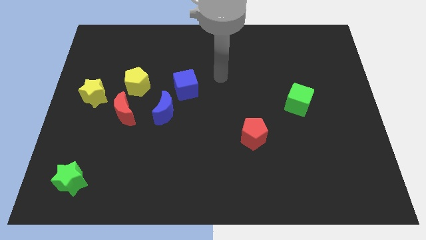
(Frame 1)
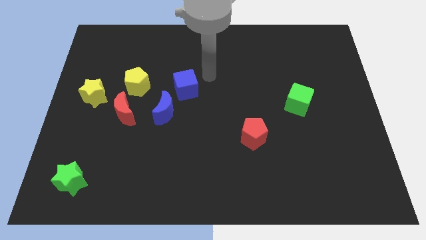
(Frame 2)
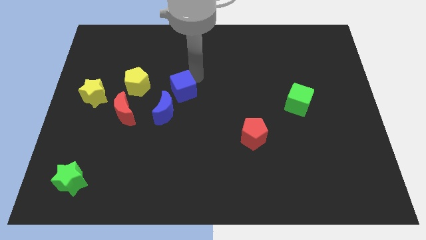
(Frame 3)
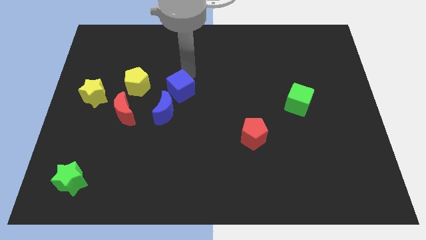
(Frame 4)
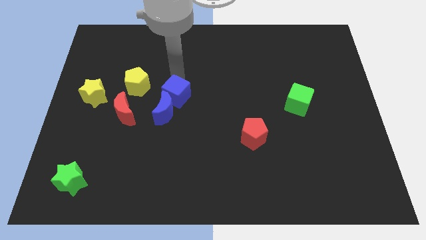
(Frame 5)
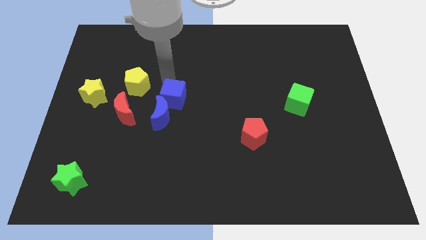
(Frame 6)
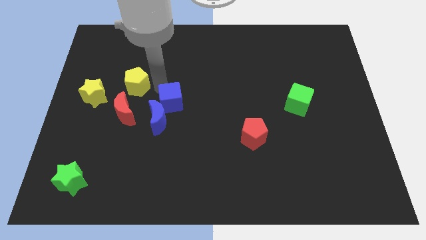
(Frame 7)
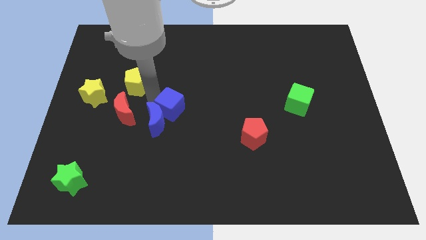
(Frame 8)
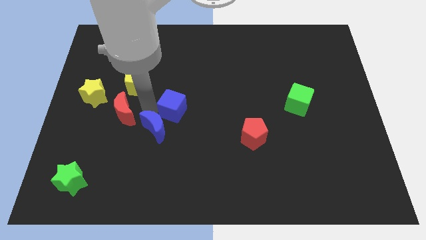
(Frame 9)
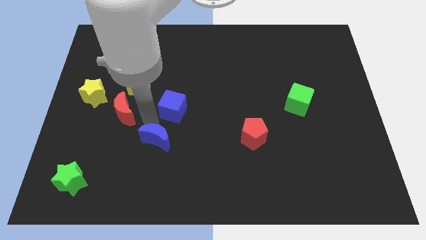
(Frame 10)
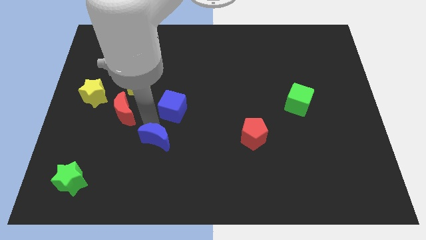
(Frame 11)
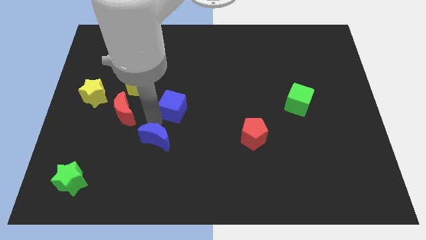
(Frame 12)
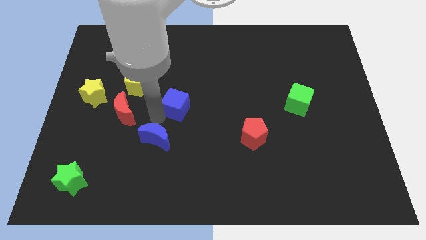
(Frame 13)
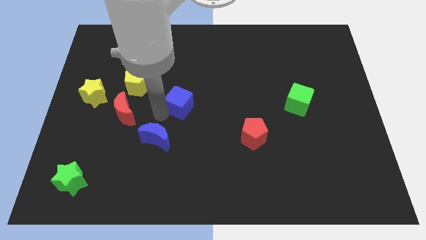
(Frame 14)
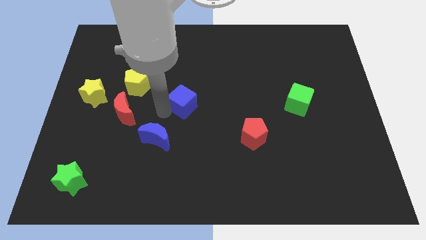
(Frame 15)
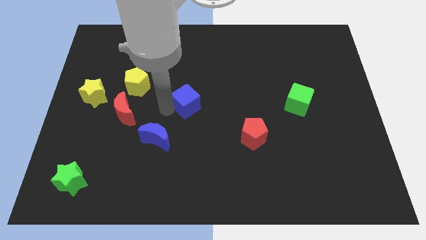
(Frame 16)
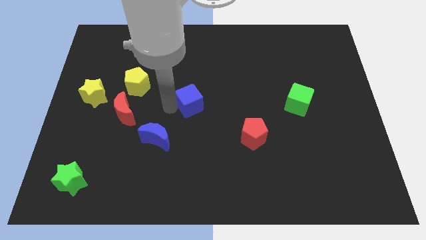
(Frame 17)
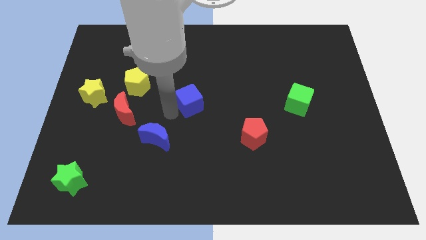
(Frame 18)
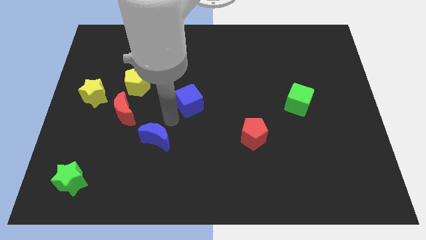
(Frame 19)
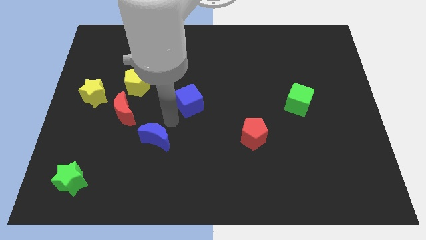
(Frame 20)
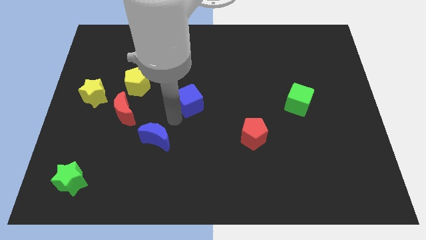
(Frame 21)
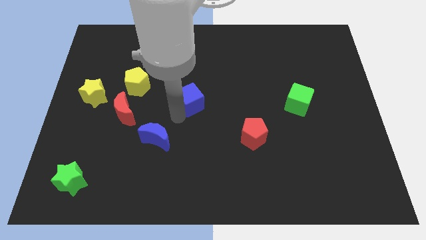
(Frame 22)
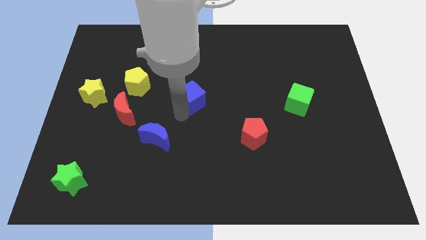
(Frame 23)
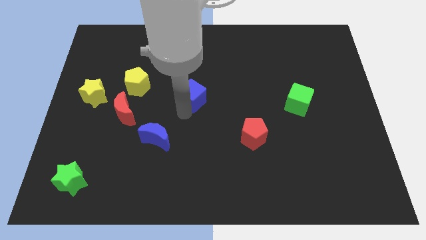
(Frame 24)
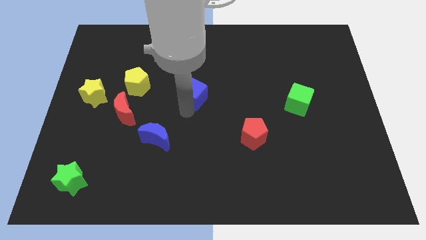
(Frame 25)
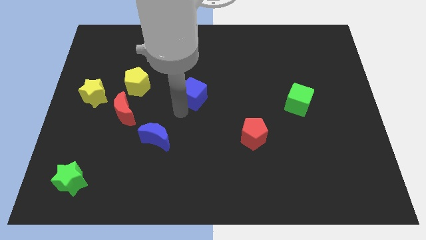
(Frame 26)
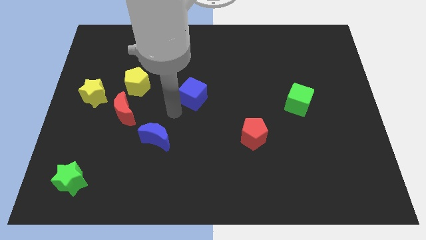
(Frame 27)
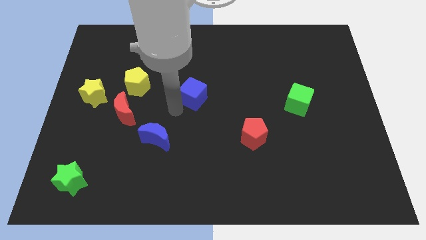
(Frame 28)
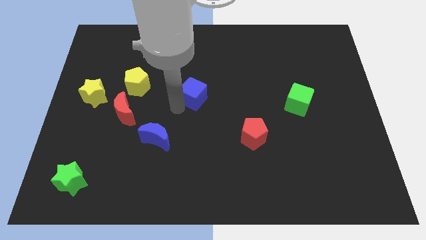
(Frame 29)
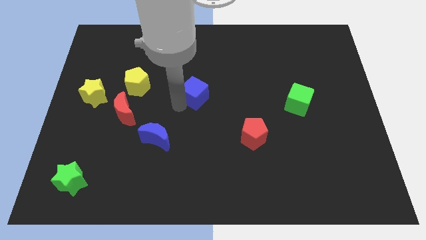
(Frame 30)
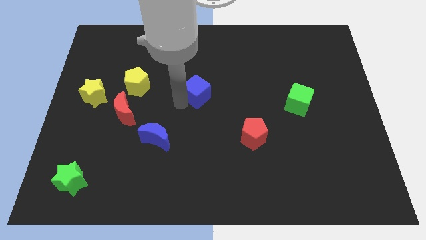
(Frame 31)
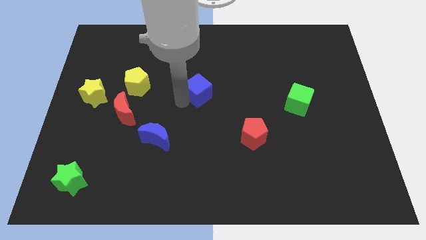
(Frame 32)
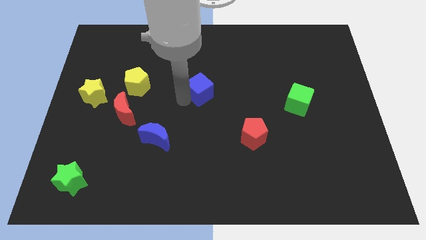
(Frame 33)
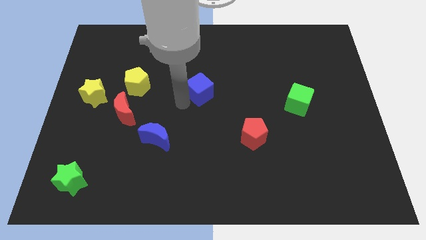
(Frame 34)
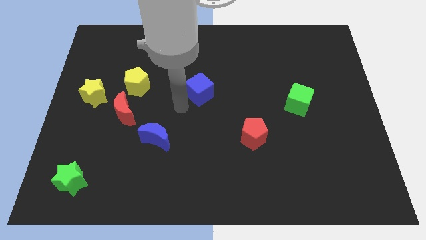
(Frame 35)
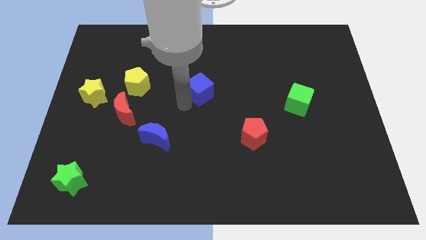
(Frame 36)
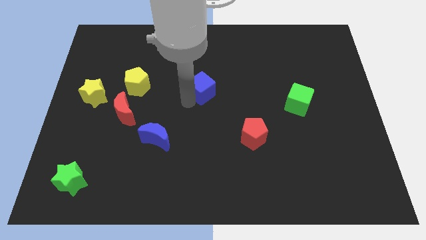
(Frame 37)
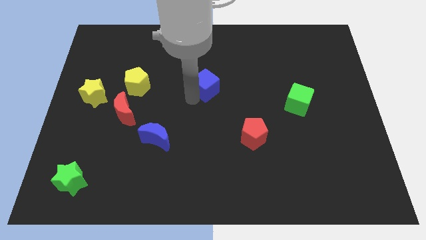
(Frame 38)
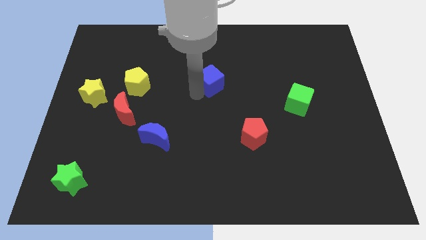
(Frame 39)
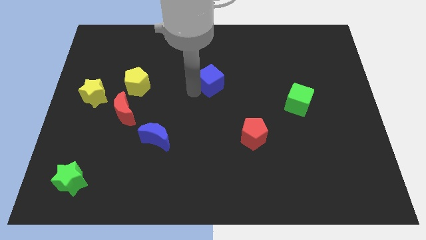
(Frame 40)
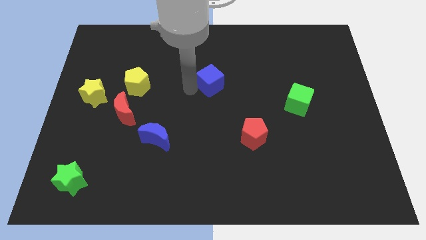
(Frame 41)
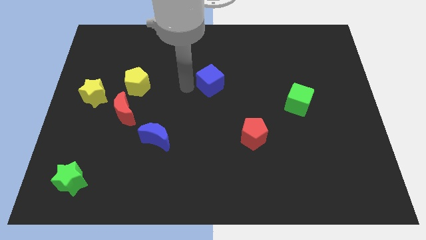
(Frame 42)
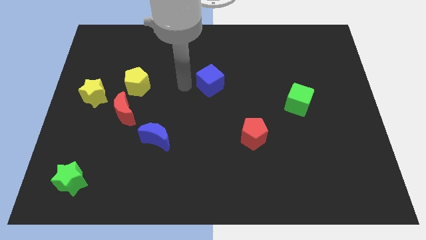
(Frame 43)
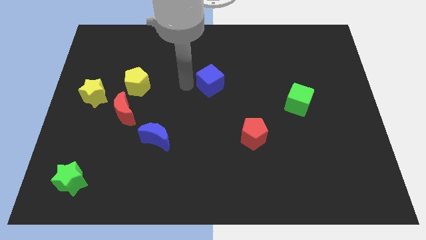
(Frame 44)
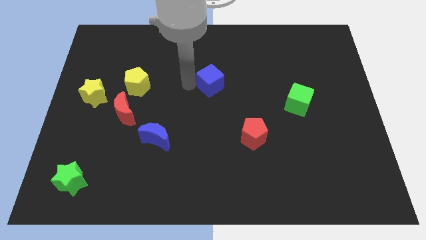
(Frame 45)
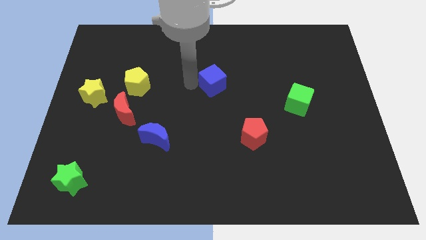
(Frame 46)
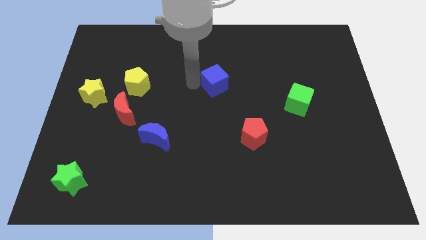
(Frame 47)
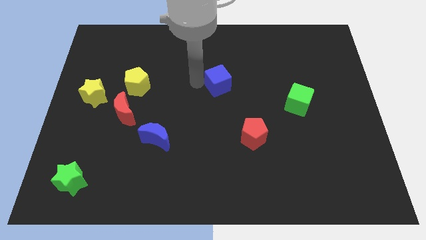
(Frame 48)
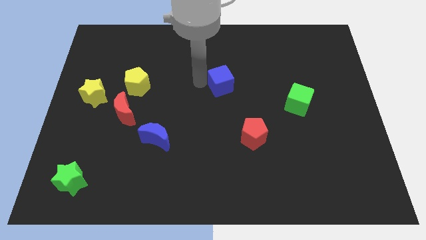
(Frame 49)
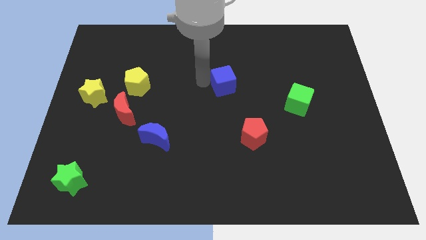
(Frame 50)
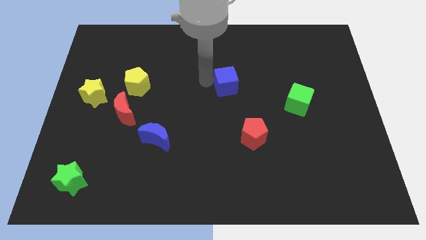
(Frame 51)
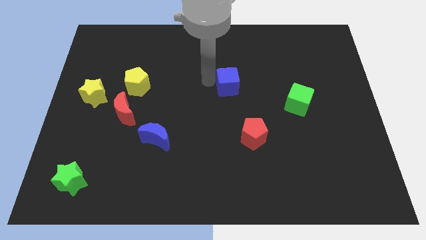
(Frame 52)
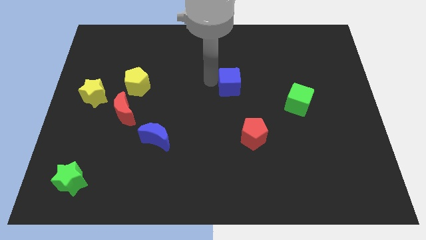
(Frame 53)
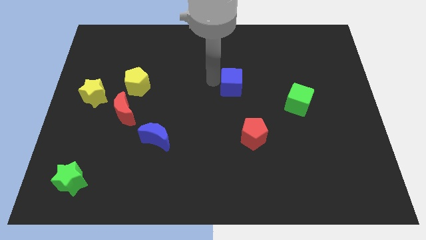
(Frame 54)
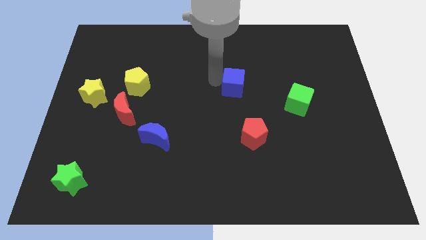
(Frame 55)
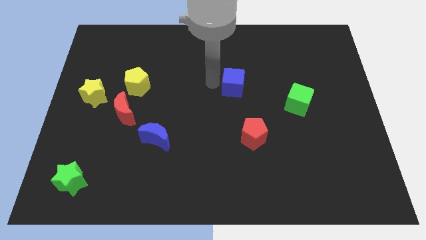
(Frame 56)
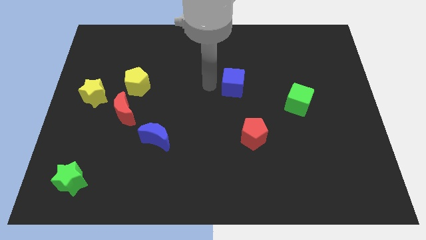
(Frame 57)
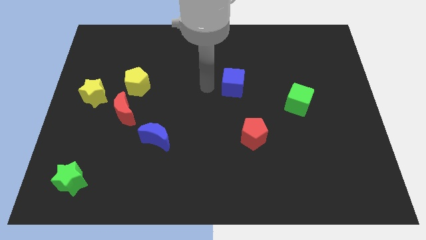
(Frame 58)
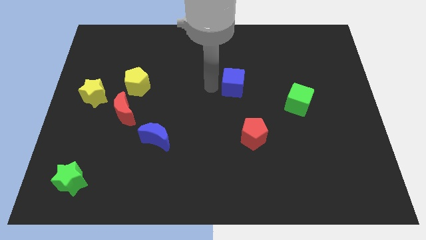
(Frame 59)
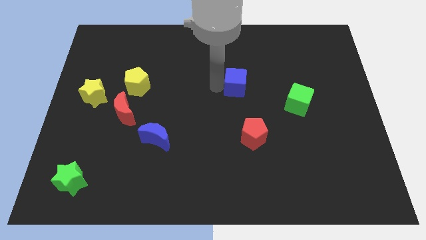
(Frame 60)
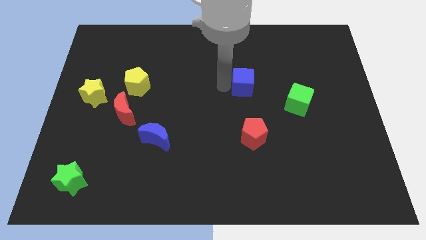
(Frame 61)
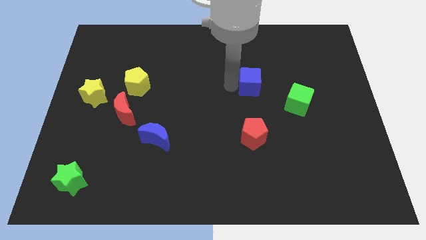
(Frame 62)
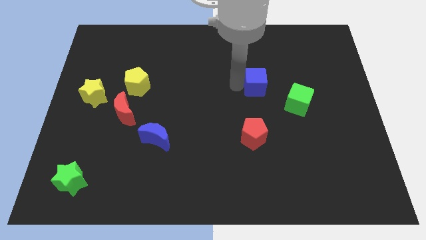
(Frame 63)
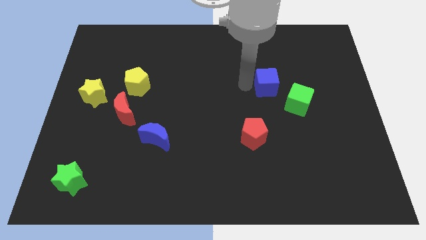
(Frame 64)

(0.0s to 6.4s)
slide the blue cube to the right

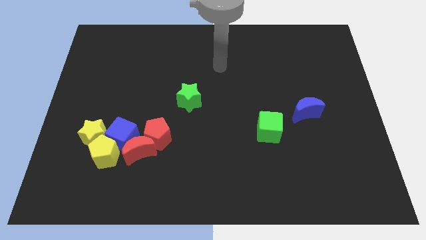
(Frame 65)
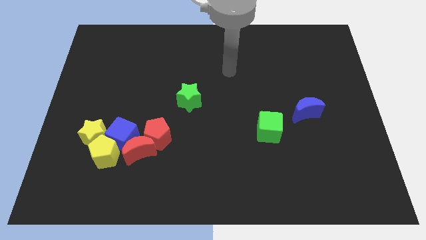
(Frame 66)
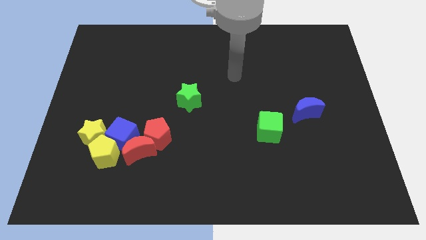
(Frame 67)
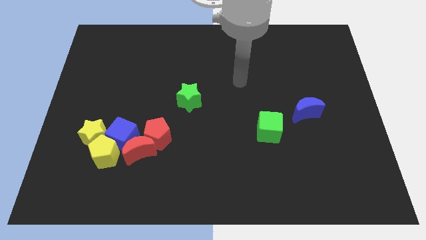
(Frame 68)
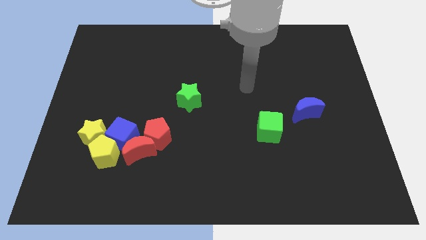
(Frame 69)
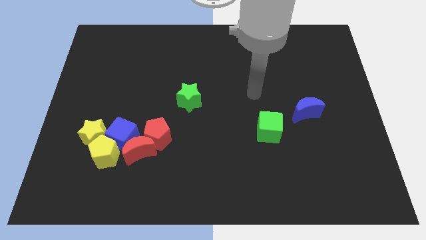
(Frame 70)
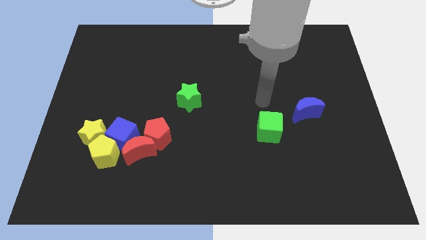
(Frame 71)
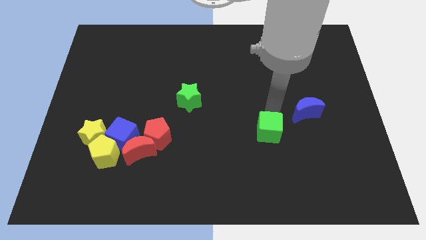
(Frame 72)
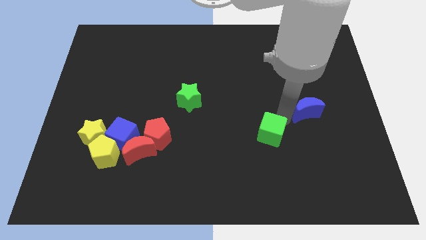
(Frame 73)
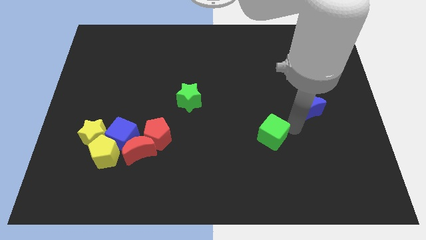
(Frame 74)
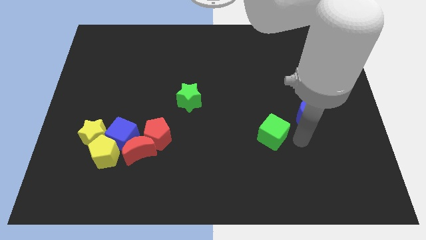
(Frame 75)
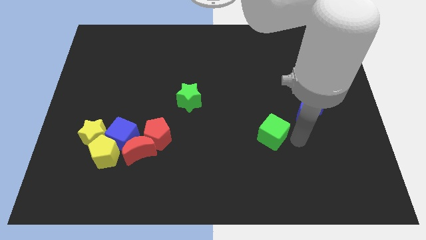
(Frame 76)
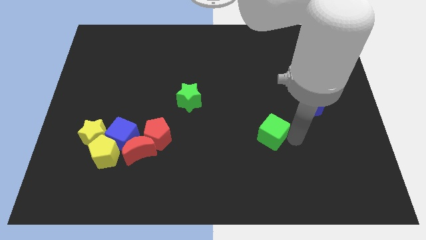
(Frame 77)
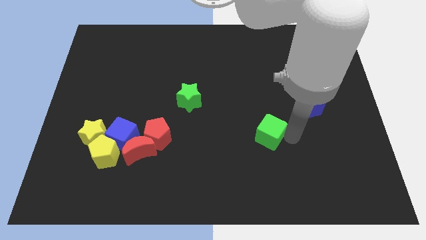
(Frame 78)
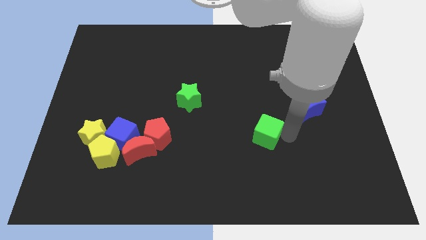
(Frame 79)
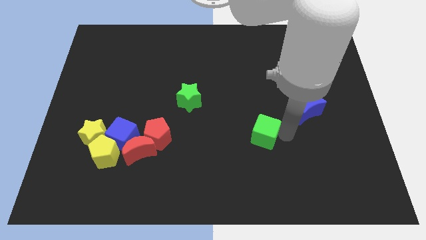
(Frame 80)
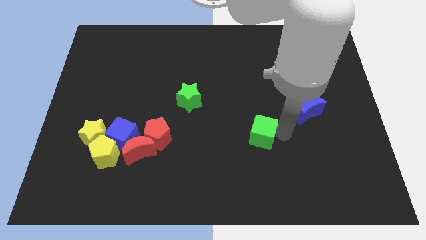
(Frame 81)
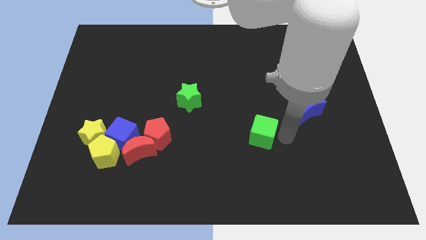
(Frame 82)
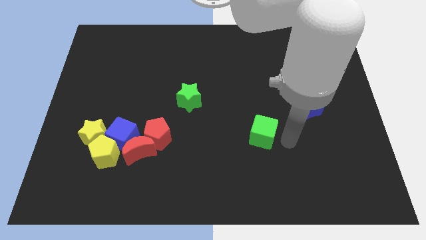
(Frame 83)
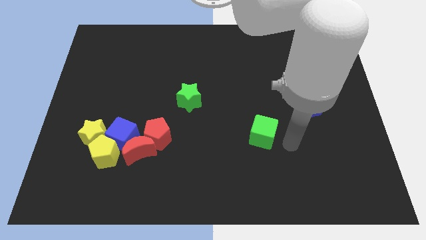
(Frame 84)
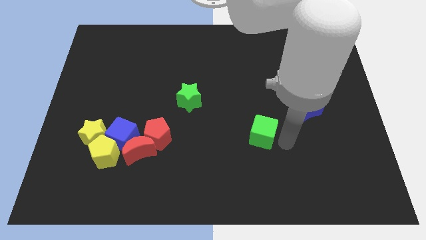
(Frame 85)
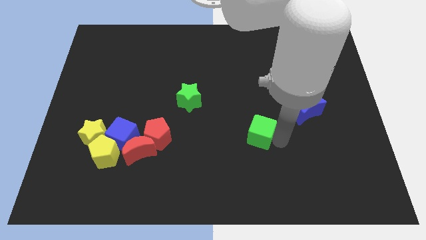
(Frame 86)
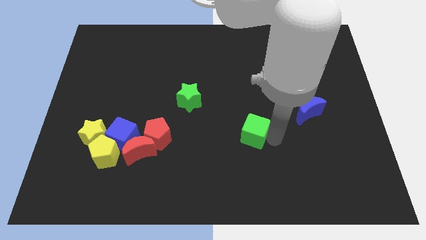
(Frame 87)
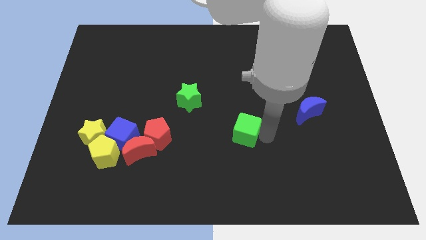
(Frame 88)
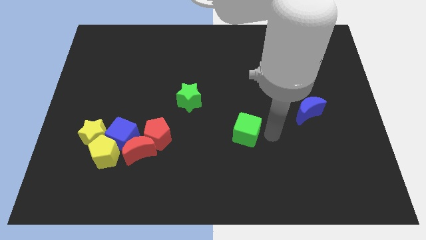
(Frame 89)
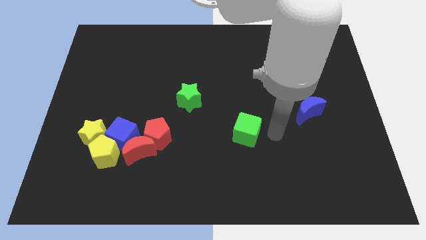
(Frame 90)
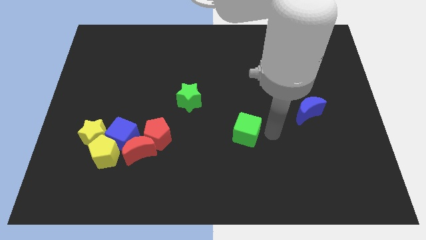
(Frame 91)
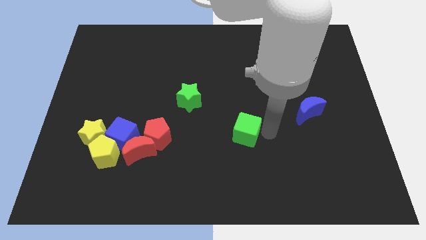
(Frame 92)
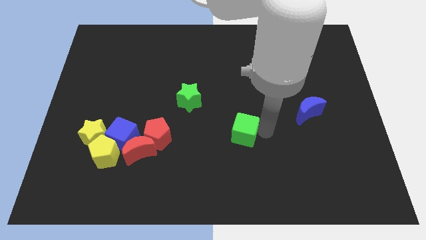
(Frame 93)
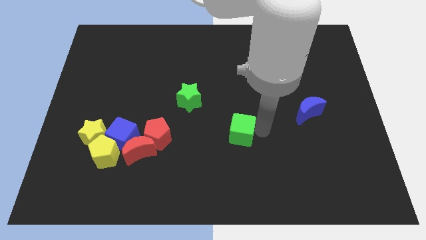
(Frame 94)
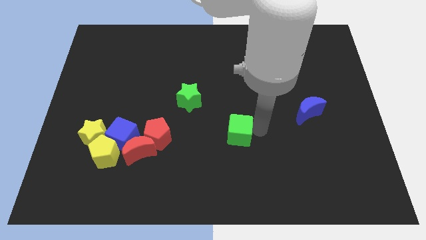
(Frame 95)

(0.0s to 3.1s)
move the green cube a little bit left
